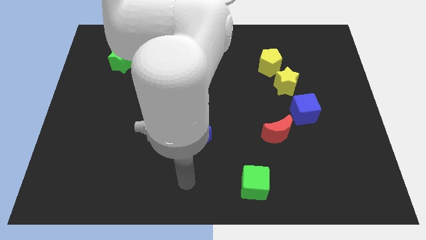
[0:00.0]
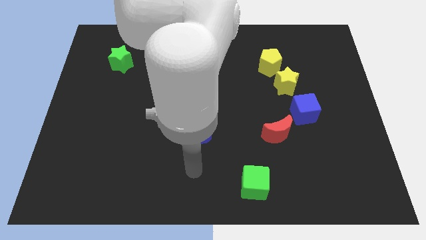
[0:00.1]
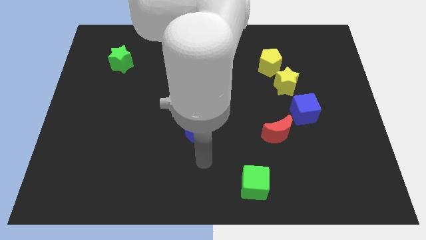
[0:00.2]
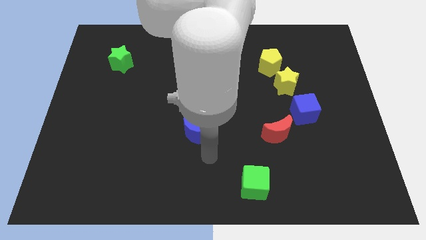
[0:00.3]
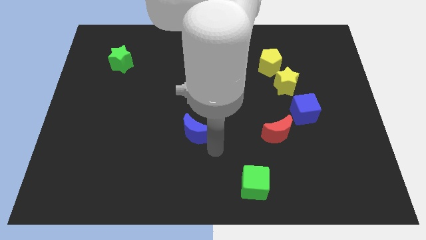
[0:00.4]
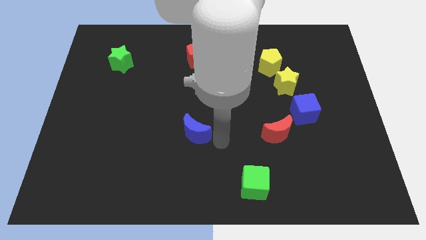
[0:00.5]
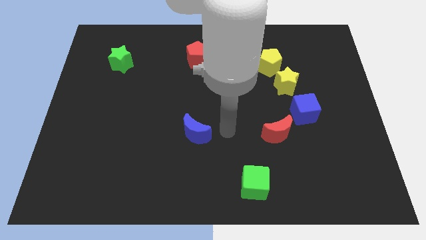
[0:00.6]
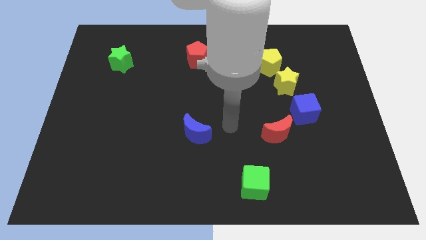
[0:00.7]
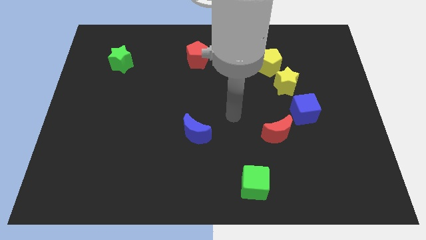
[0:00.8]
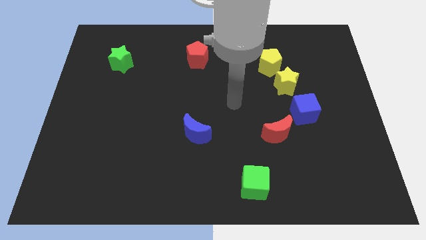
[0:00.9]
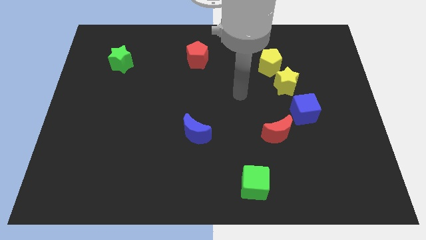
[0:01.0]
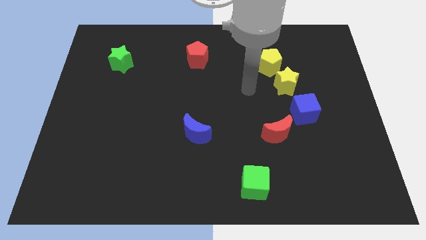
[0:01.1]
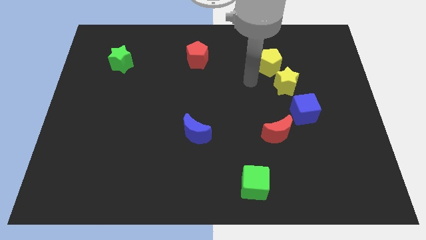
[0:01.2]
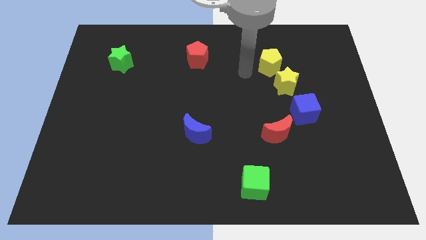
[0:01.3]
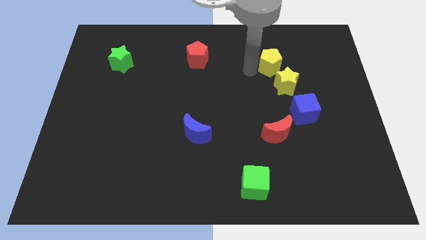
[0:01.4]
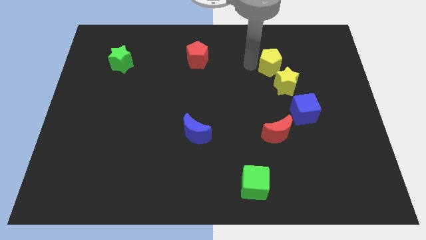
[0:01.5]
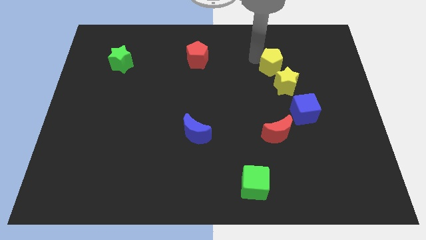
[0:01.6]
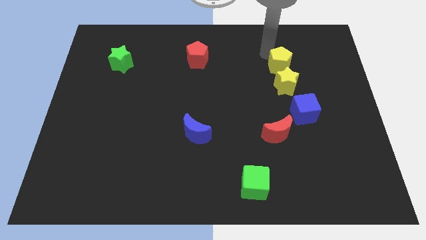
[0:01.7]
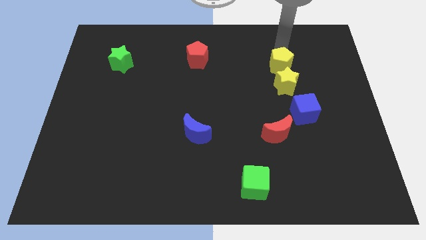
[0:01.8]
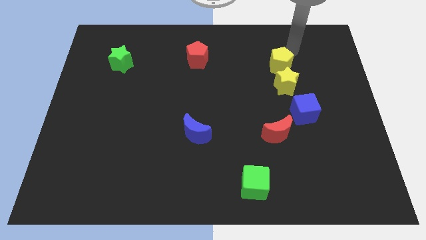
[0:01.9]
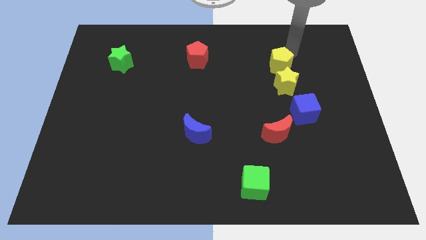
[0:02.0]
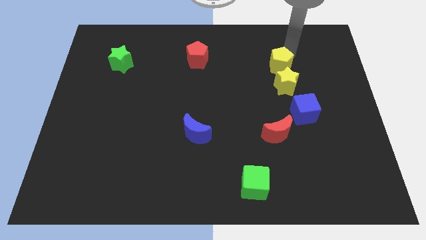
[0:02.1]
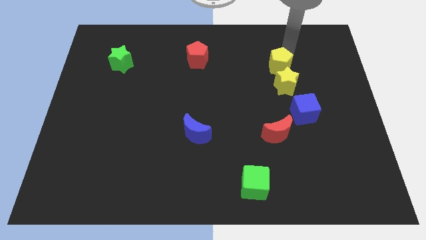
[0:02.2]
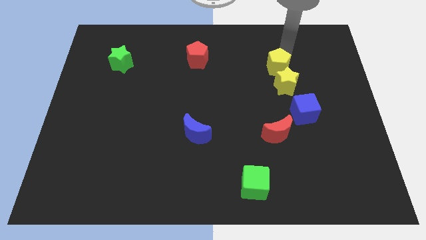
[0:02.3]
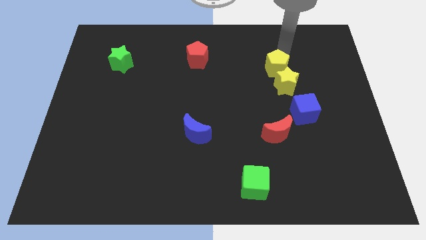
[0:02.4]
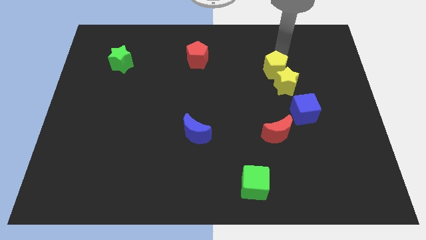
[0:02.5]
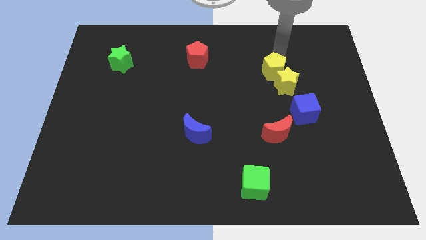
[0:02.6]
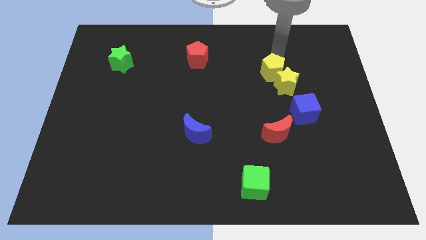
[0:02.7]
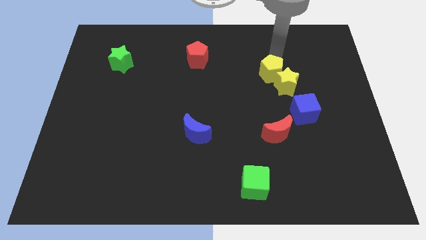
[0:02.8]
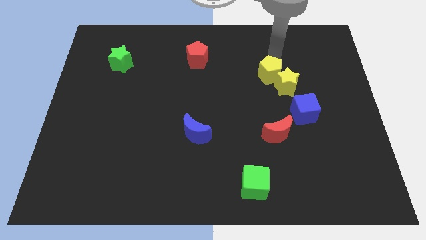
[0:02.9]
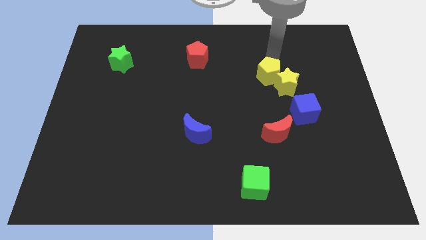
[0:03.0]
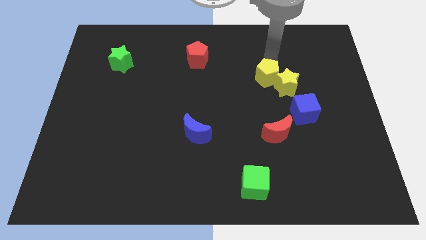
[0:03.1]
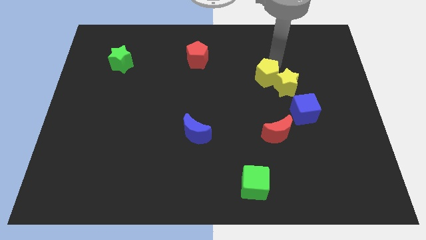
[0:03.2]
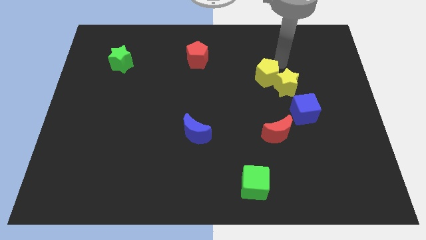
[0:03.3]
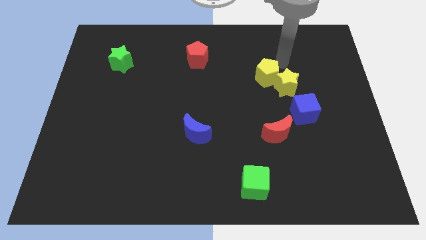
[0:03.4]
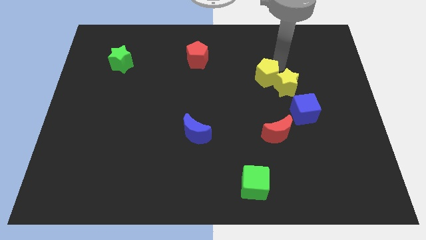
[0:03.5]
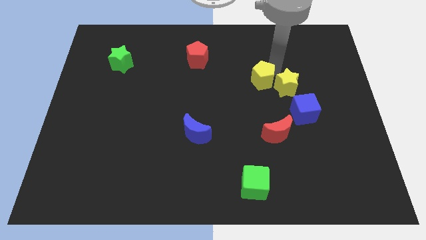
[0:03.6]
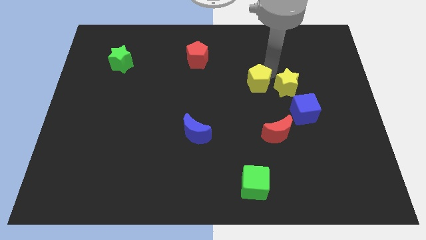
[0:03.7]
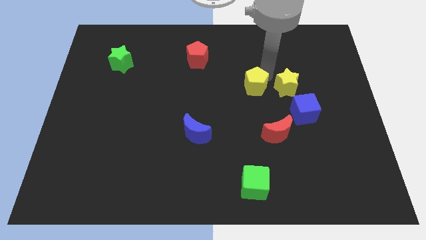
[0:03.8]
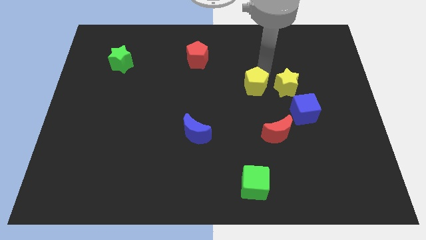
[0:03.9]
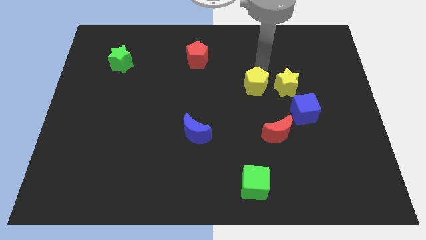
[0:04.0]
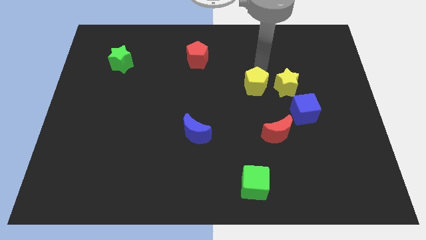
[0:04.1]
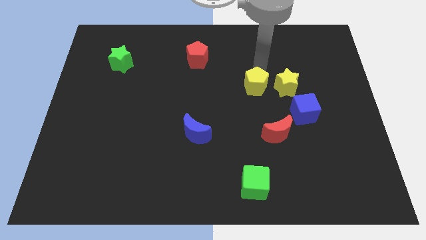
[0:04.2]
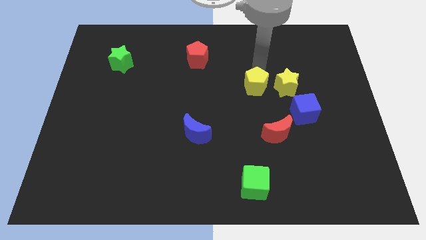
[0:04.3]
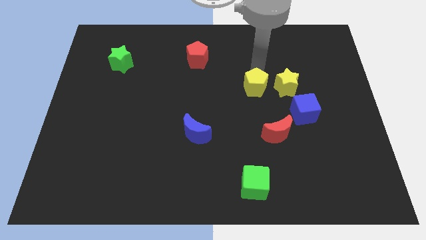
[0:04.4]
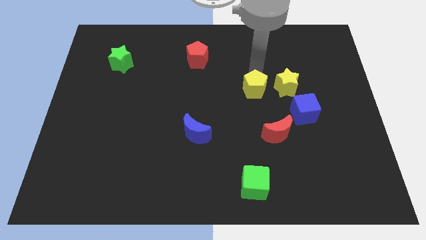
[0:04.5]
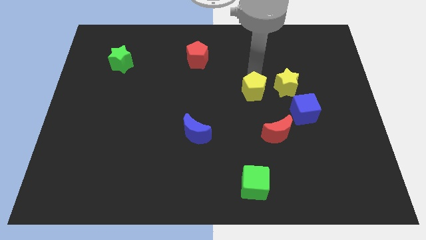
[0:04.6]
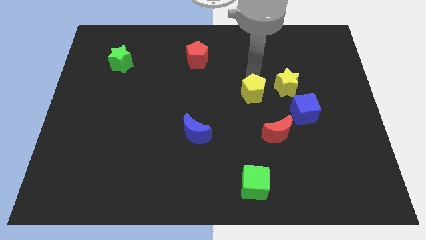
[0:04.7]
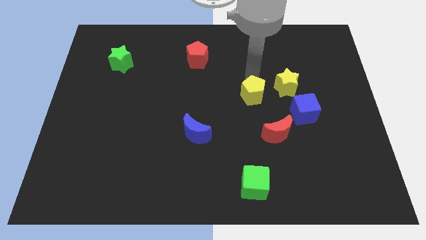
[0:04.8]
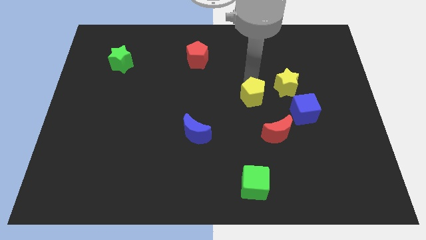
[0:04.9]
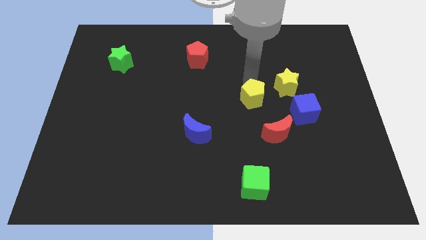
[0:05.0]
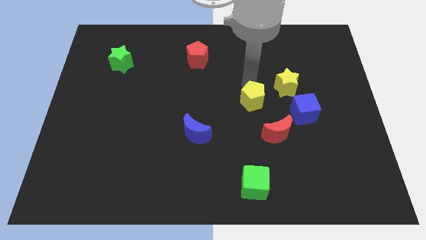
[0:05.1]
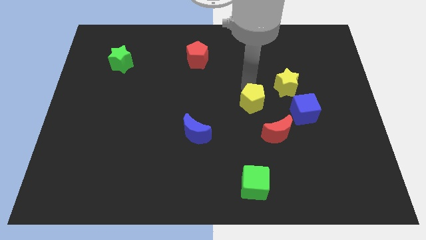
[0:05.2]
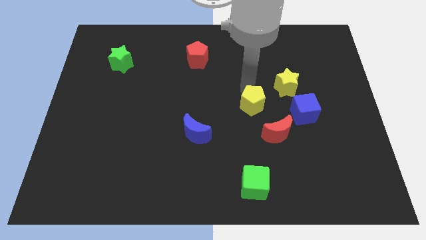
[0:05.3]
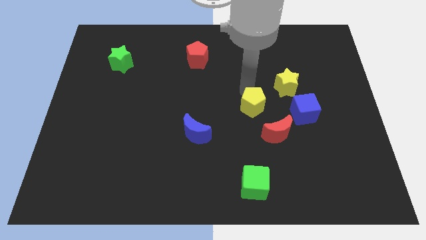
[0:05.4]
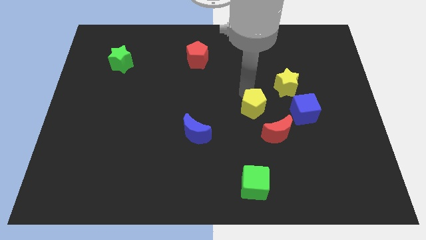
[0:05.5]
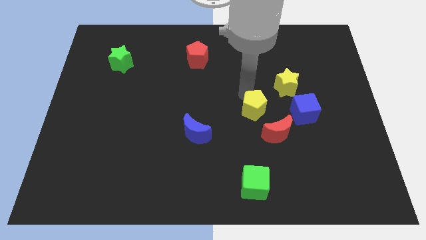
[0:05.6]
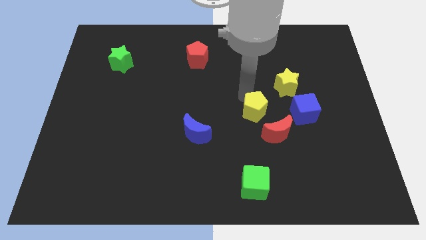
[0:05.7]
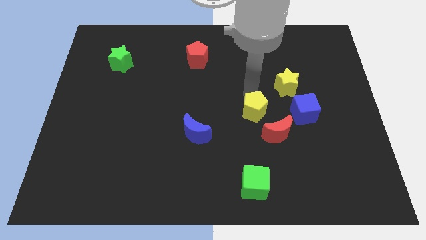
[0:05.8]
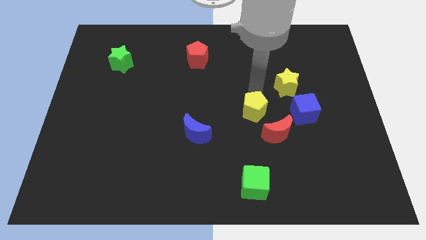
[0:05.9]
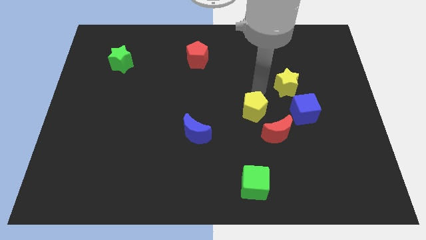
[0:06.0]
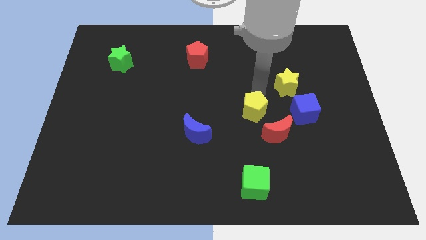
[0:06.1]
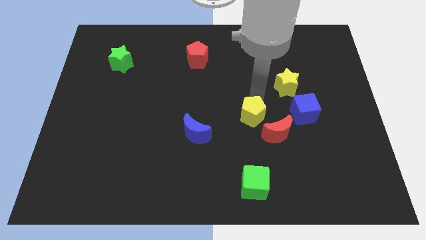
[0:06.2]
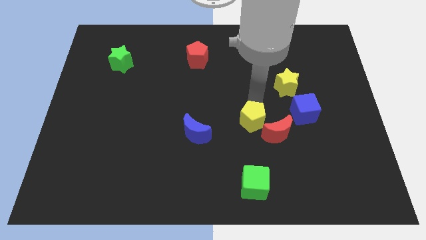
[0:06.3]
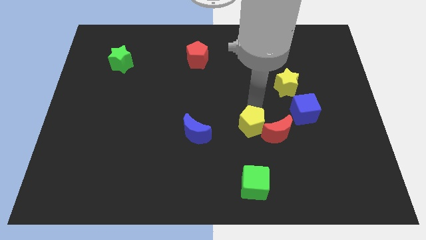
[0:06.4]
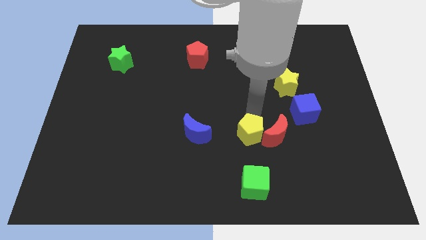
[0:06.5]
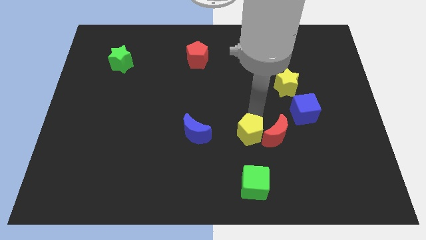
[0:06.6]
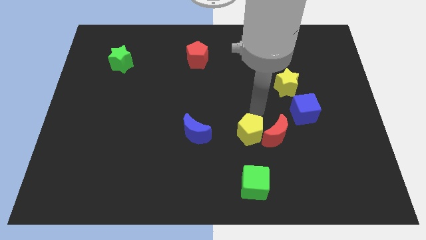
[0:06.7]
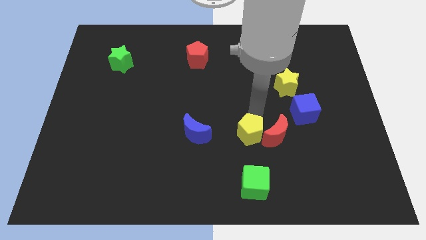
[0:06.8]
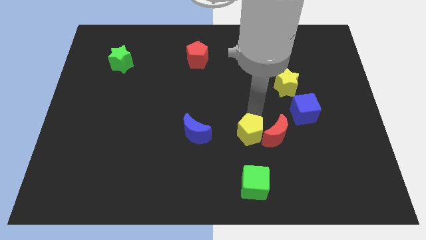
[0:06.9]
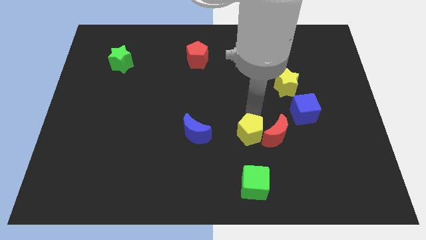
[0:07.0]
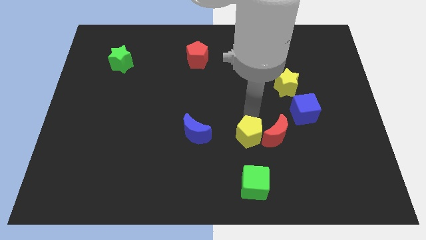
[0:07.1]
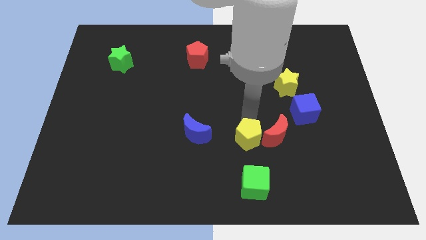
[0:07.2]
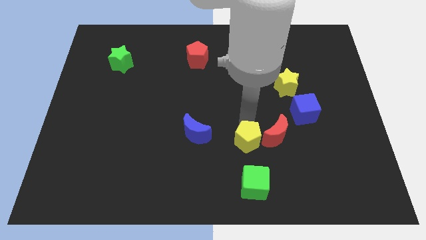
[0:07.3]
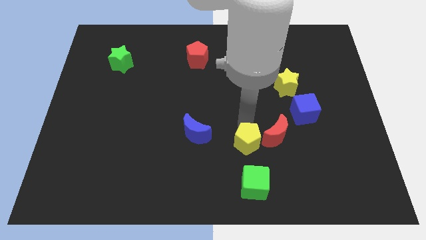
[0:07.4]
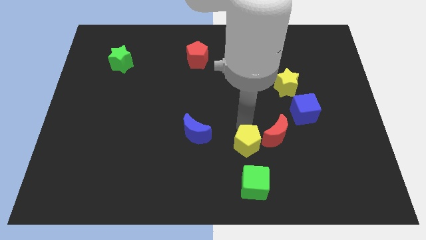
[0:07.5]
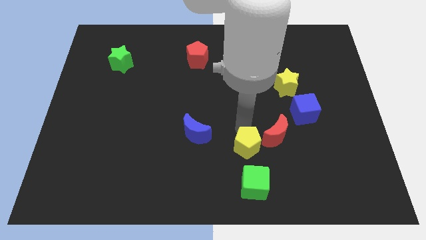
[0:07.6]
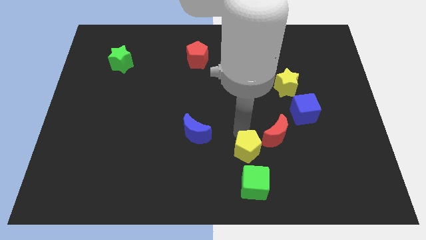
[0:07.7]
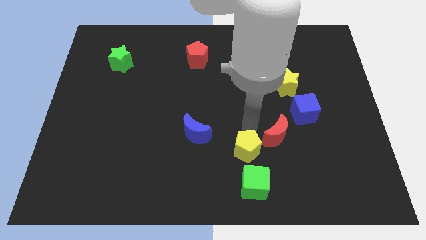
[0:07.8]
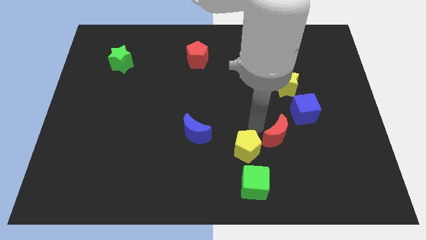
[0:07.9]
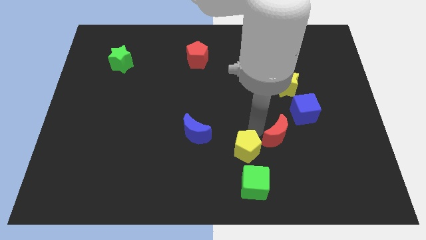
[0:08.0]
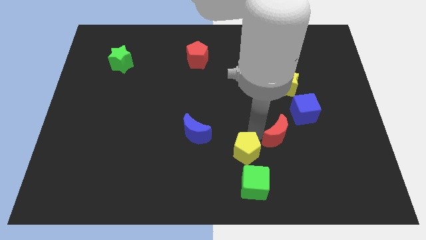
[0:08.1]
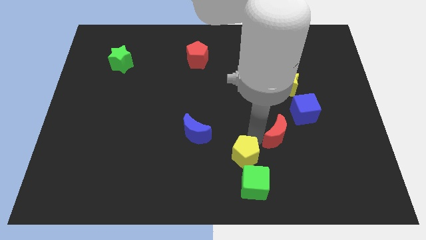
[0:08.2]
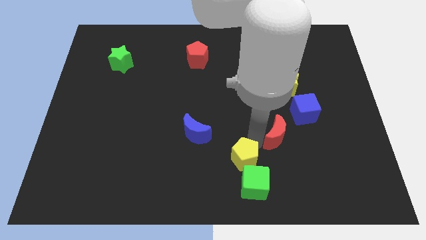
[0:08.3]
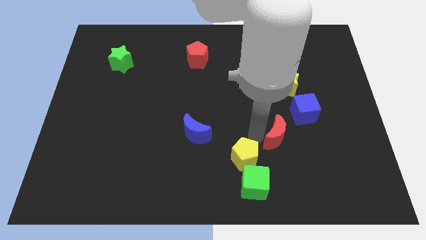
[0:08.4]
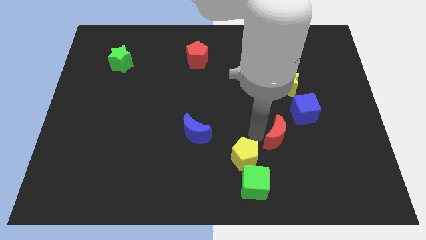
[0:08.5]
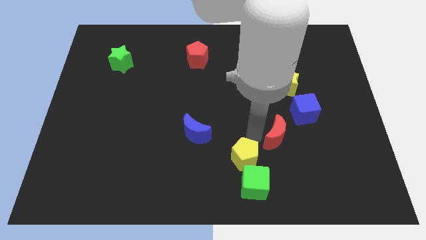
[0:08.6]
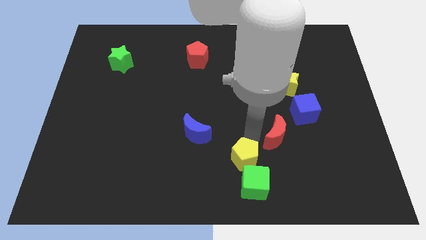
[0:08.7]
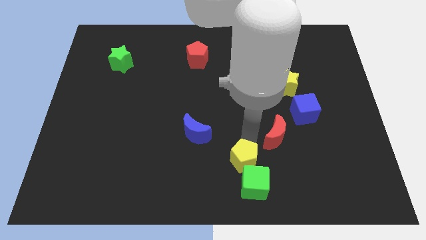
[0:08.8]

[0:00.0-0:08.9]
push the yellow pentagon to the bottom
